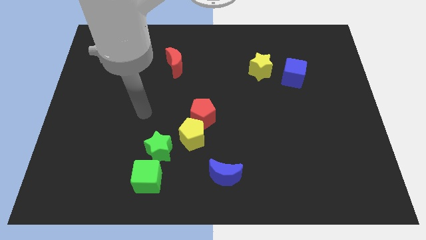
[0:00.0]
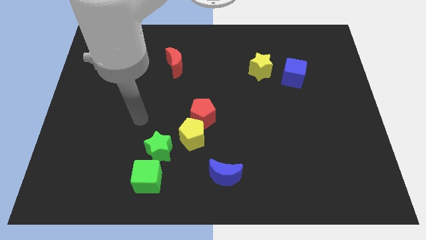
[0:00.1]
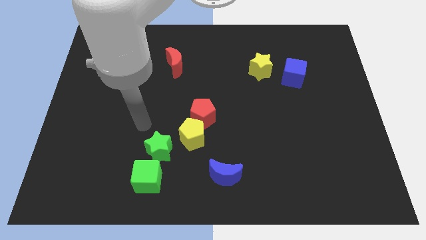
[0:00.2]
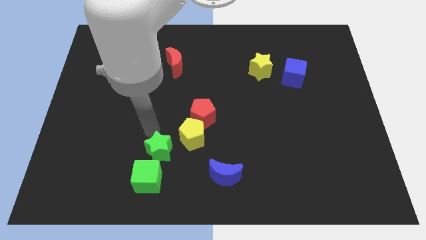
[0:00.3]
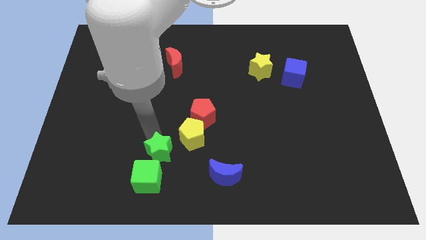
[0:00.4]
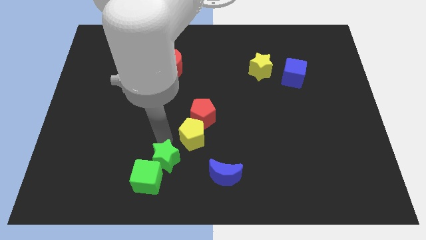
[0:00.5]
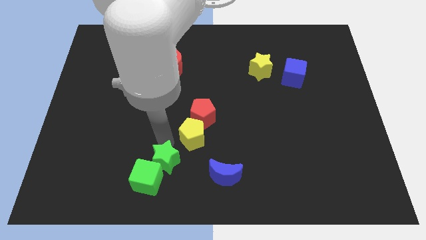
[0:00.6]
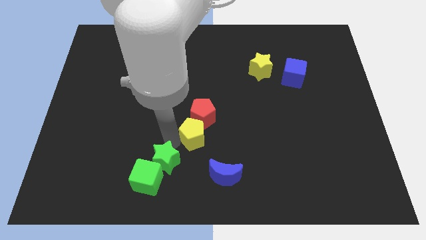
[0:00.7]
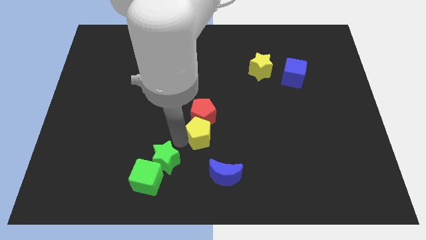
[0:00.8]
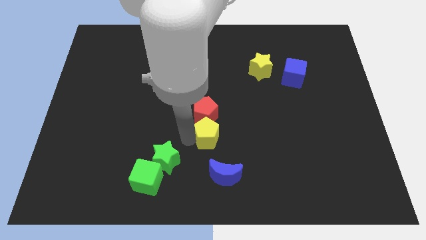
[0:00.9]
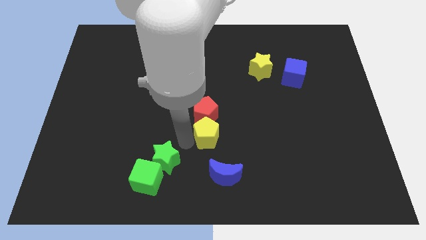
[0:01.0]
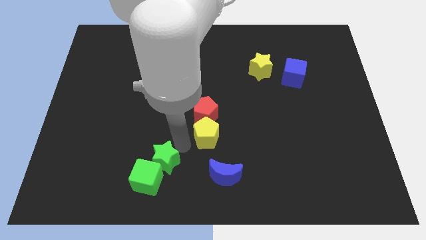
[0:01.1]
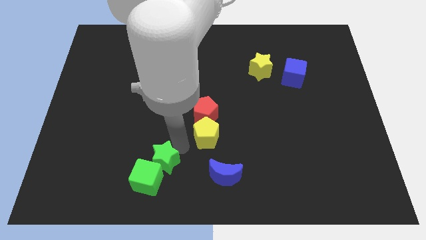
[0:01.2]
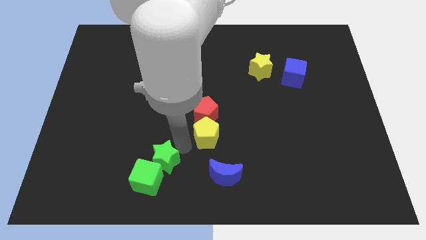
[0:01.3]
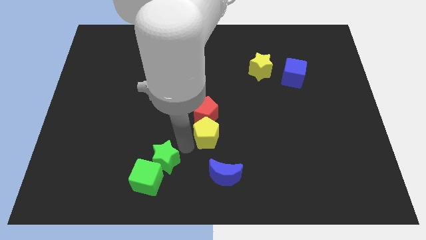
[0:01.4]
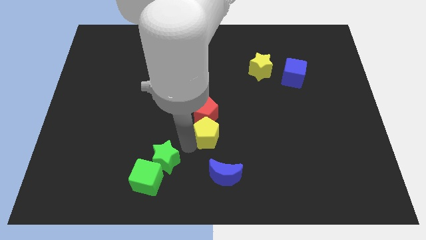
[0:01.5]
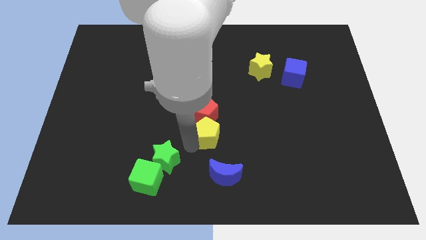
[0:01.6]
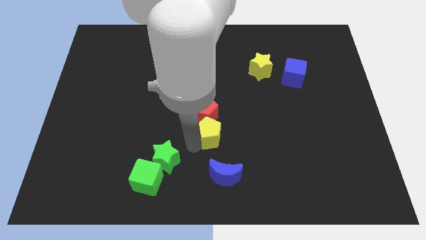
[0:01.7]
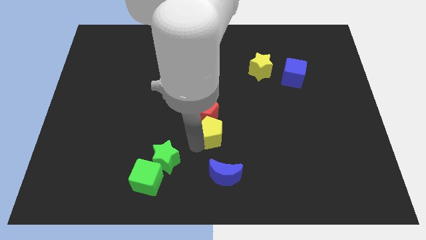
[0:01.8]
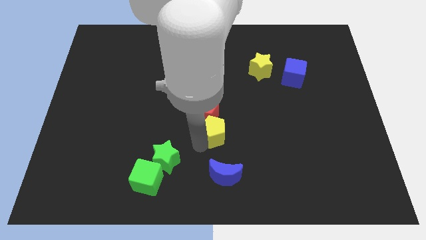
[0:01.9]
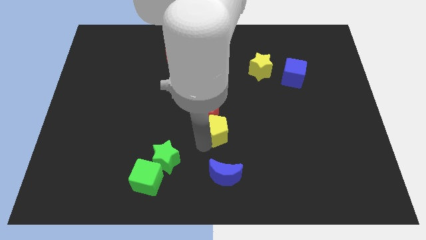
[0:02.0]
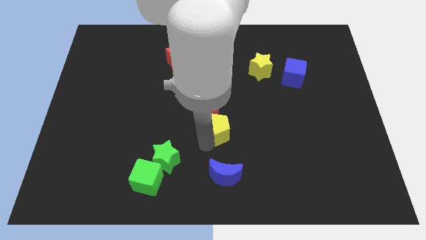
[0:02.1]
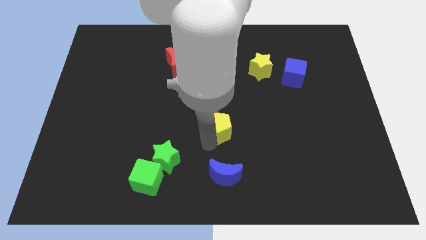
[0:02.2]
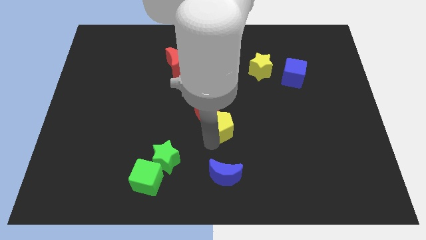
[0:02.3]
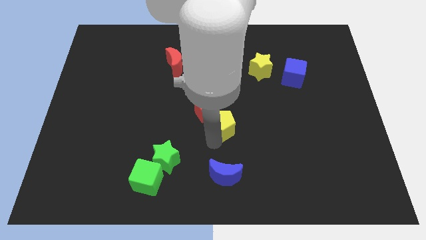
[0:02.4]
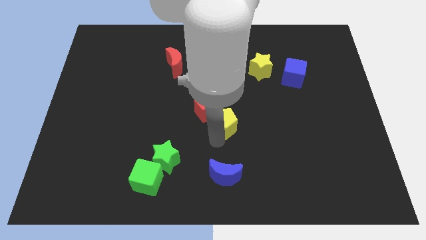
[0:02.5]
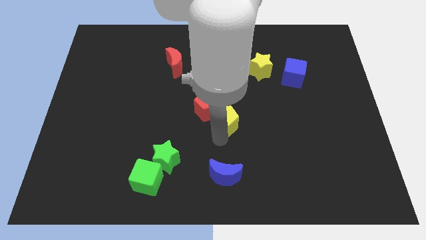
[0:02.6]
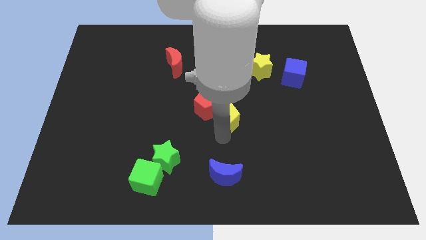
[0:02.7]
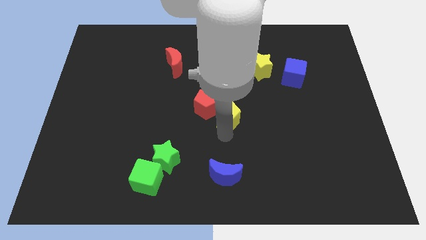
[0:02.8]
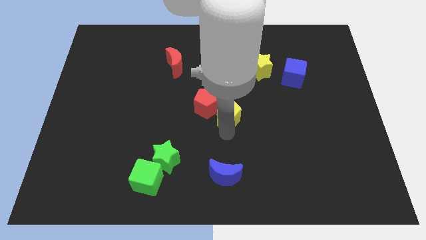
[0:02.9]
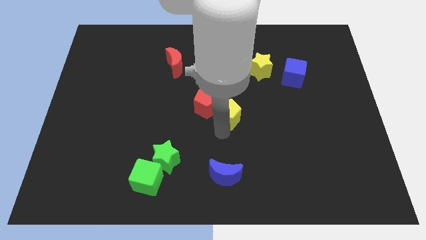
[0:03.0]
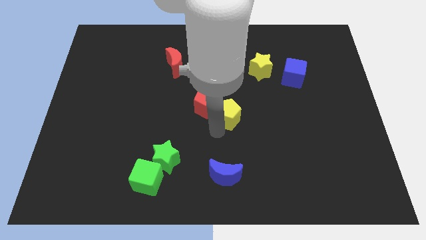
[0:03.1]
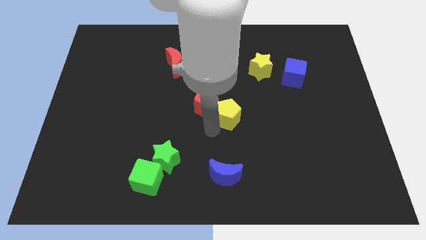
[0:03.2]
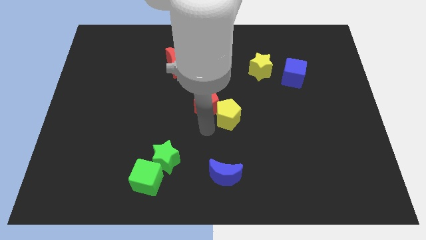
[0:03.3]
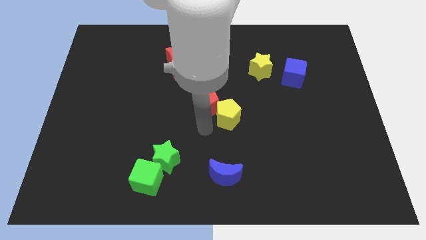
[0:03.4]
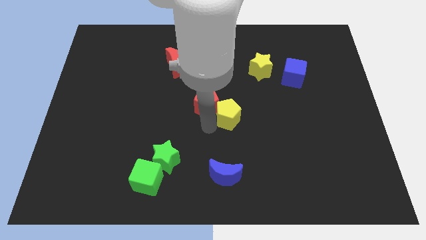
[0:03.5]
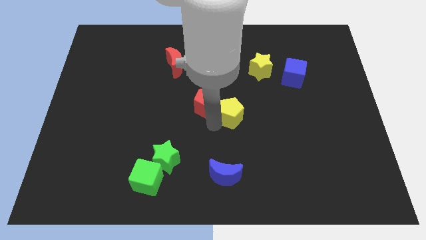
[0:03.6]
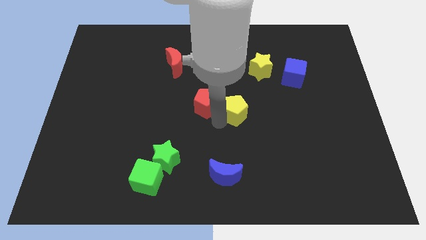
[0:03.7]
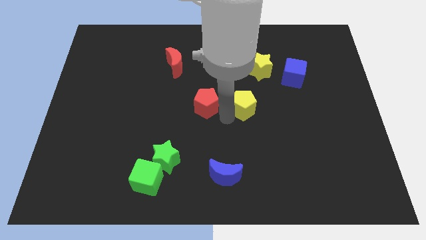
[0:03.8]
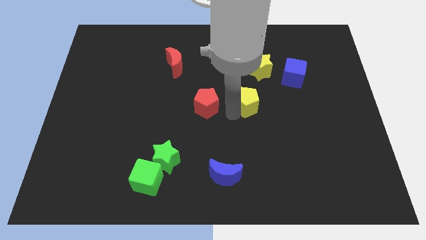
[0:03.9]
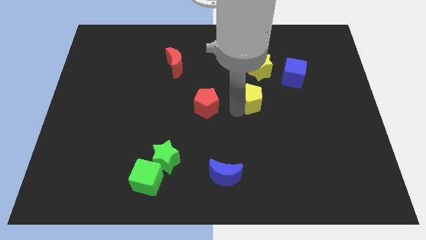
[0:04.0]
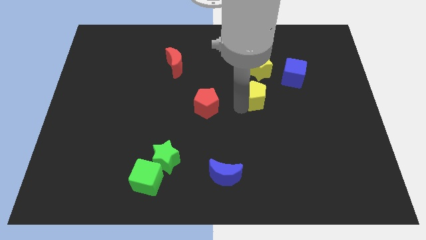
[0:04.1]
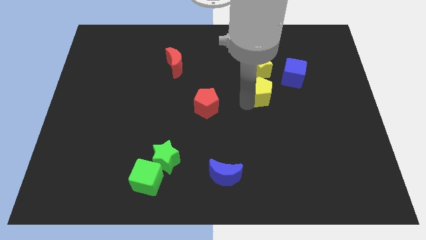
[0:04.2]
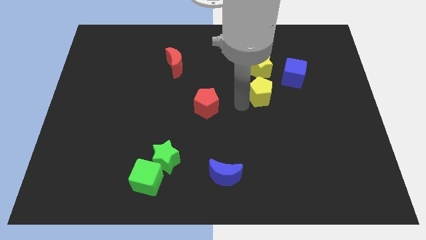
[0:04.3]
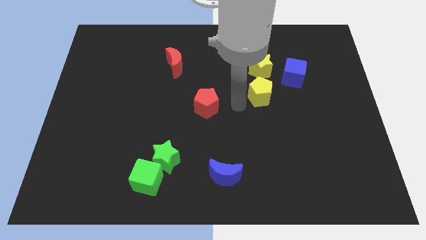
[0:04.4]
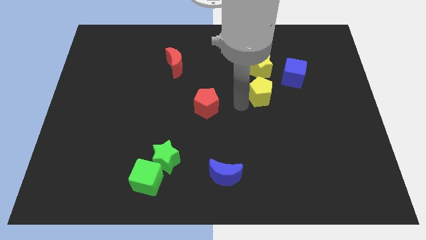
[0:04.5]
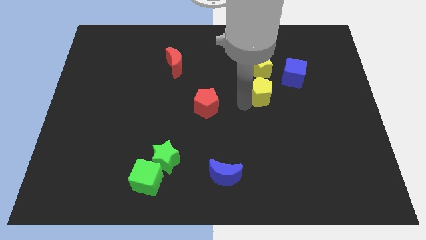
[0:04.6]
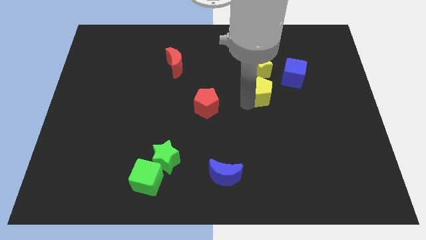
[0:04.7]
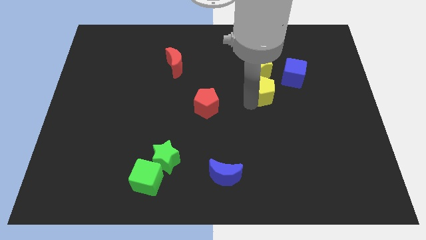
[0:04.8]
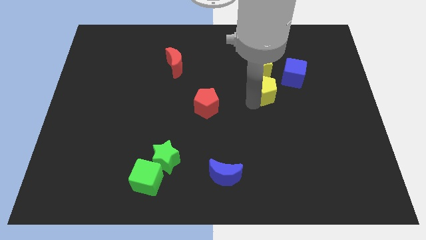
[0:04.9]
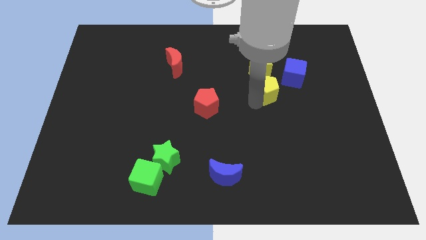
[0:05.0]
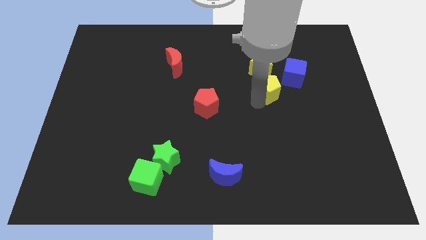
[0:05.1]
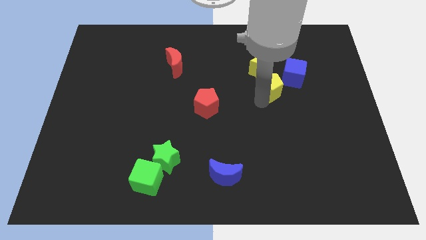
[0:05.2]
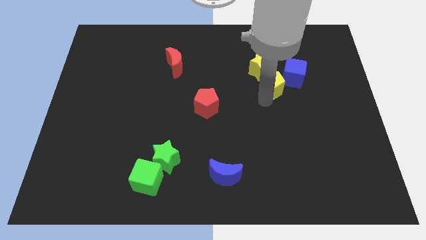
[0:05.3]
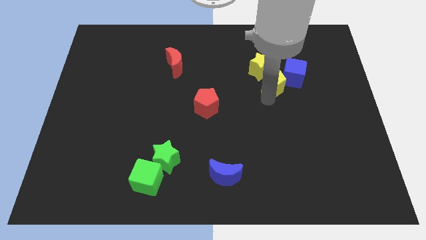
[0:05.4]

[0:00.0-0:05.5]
put the yellow pentagon to the blue cube

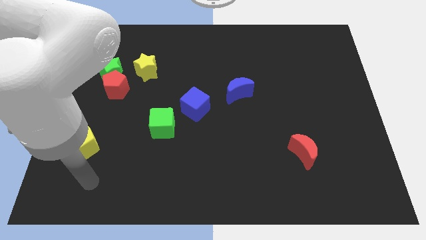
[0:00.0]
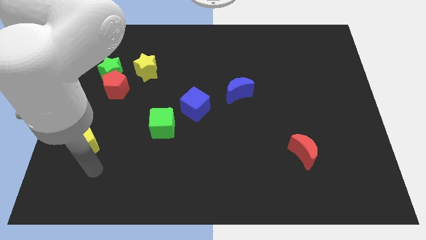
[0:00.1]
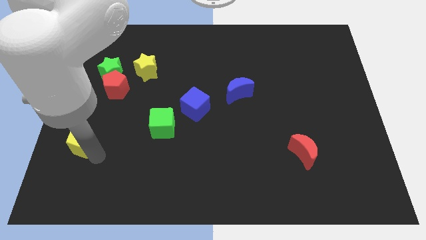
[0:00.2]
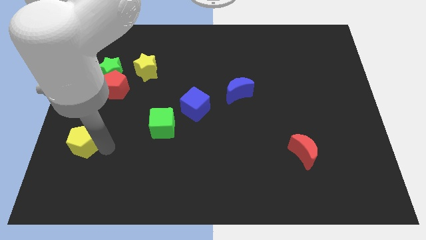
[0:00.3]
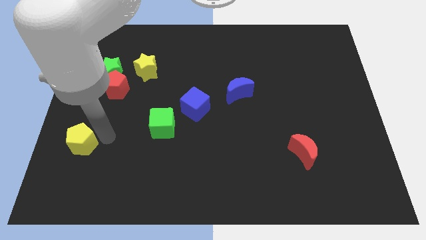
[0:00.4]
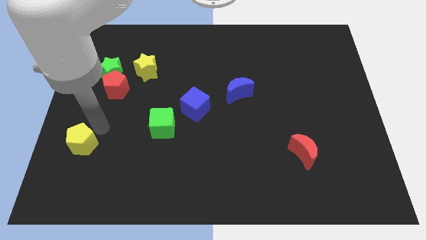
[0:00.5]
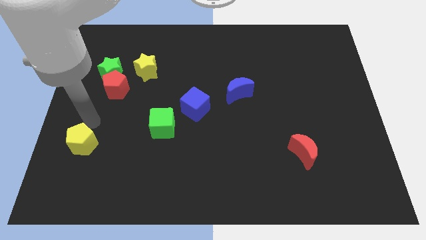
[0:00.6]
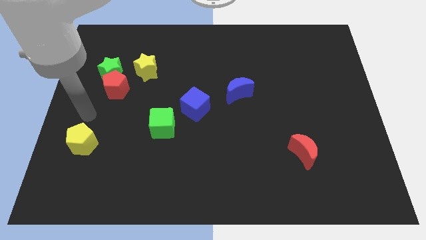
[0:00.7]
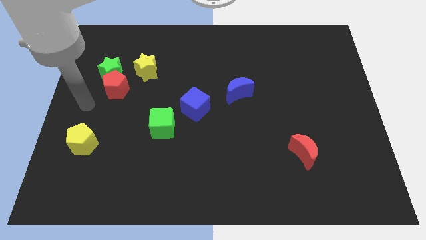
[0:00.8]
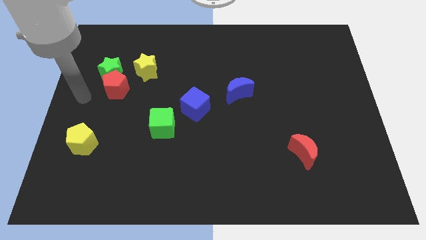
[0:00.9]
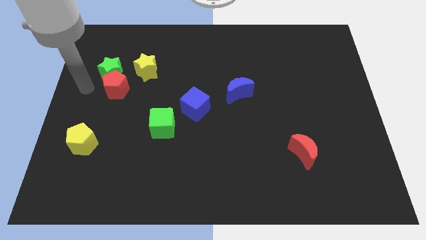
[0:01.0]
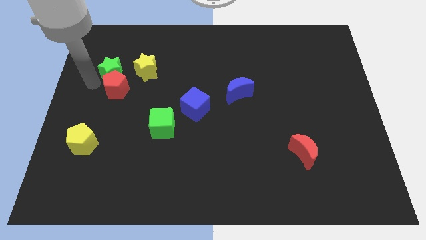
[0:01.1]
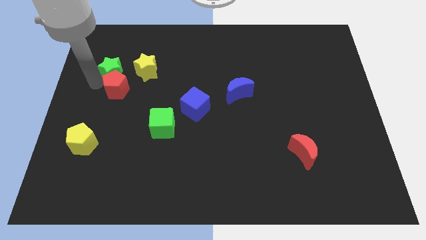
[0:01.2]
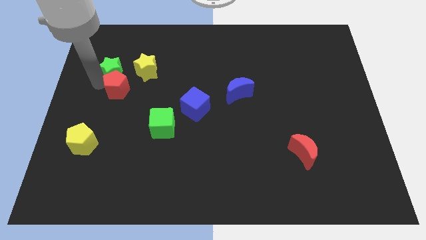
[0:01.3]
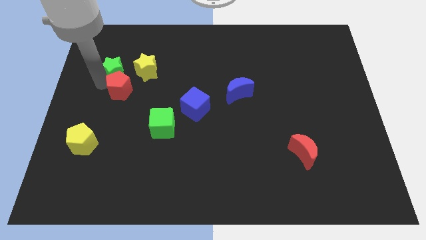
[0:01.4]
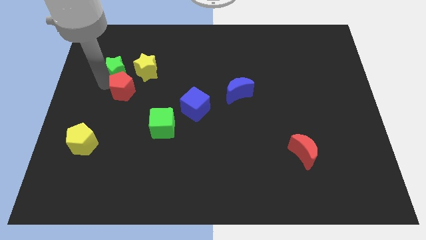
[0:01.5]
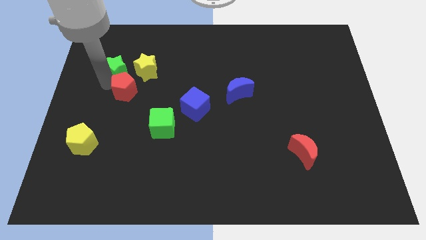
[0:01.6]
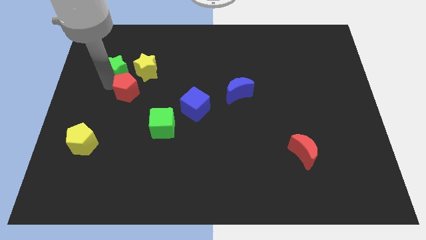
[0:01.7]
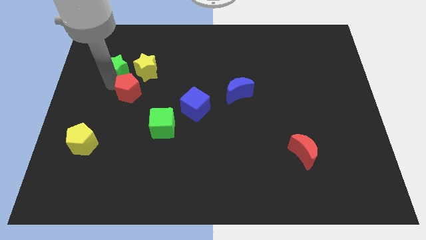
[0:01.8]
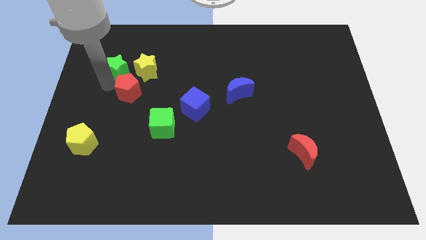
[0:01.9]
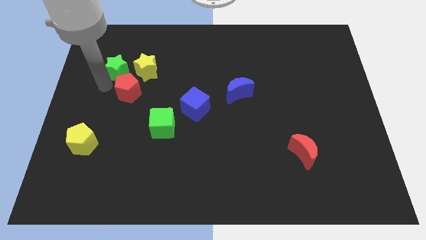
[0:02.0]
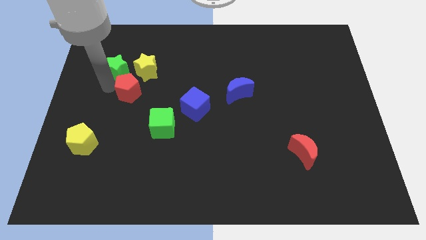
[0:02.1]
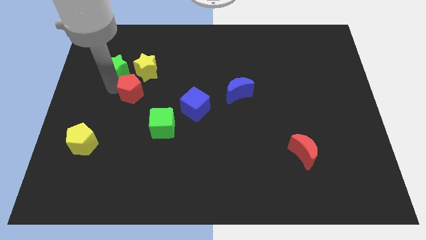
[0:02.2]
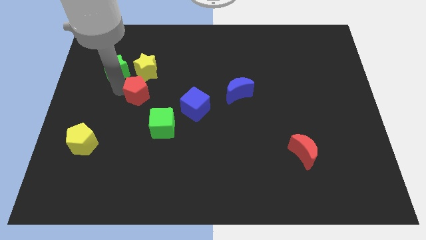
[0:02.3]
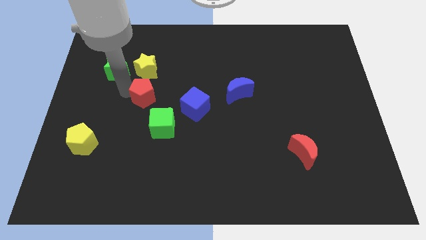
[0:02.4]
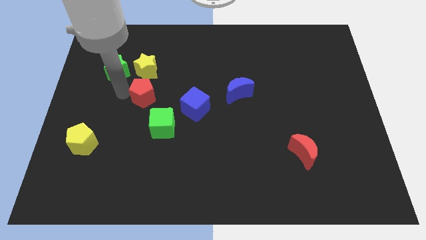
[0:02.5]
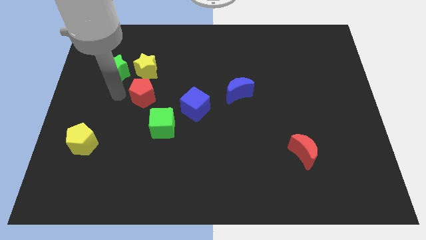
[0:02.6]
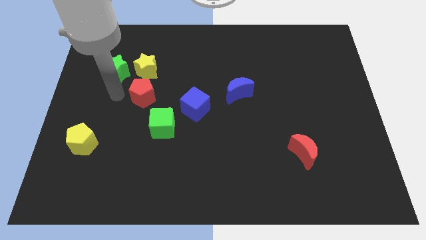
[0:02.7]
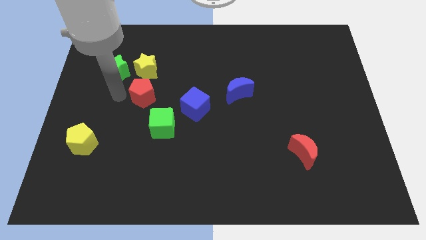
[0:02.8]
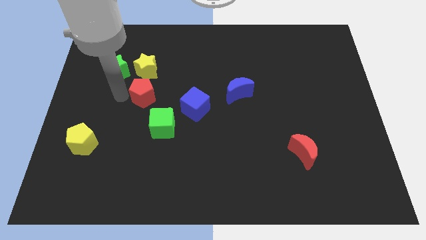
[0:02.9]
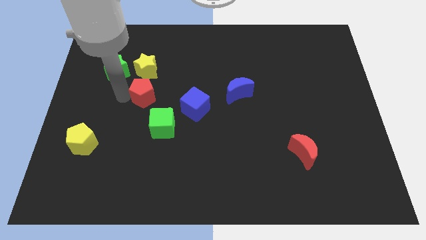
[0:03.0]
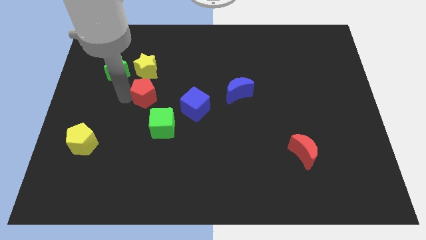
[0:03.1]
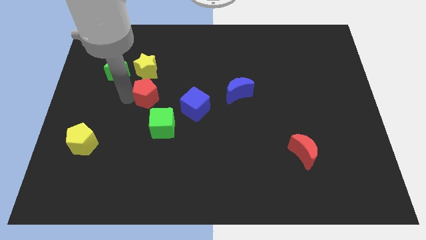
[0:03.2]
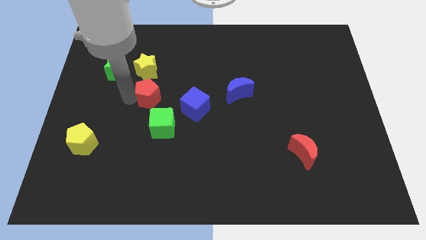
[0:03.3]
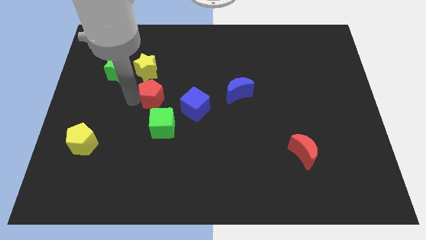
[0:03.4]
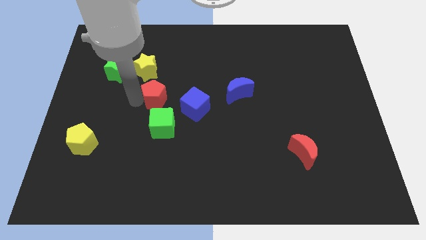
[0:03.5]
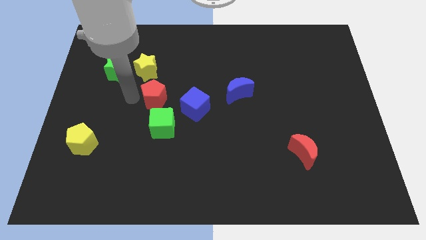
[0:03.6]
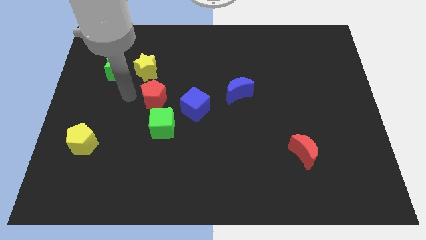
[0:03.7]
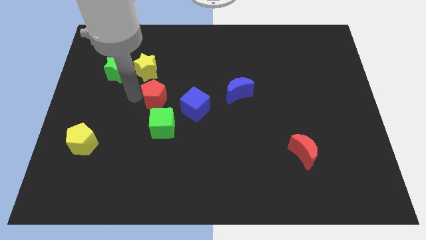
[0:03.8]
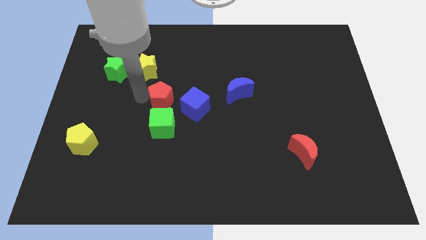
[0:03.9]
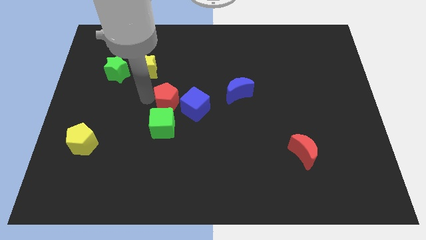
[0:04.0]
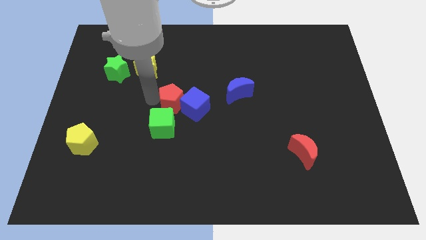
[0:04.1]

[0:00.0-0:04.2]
move the red pentagon to the blue cube
